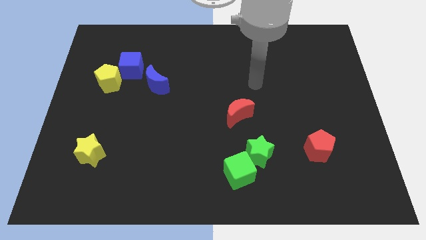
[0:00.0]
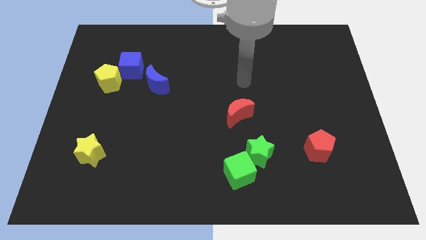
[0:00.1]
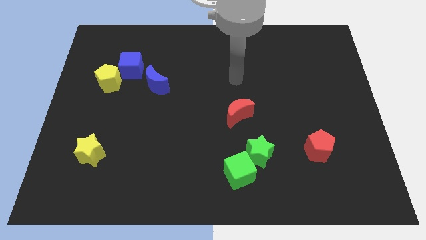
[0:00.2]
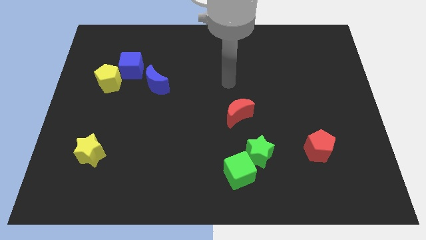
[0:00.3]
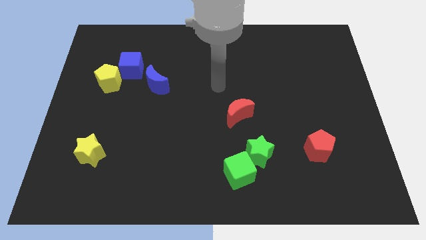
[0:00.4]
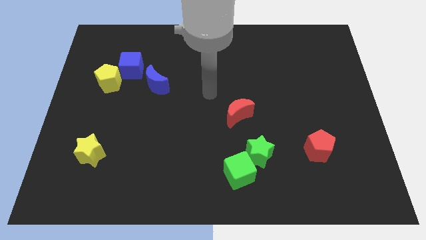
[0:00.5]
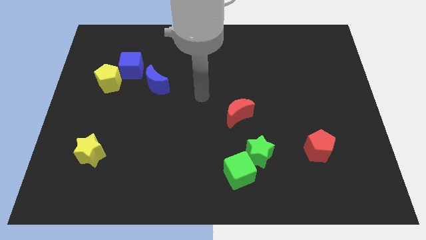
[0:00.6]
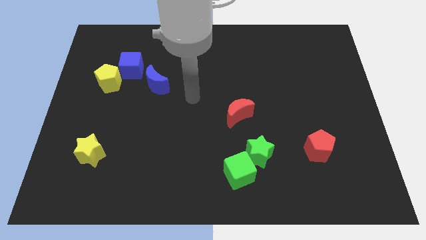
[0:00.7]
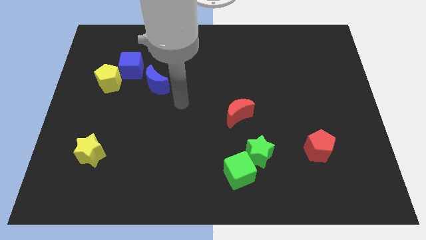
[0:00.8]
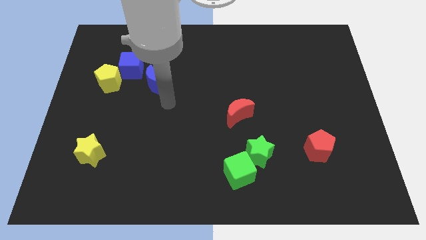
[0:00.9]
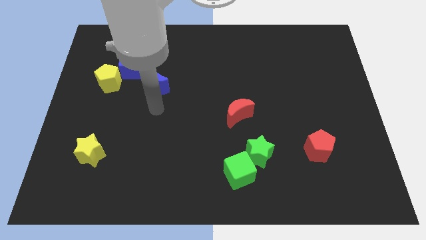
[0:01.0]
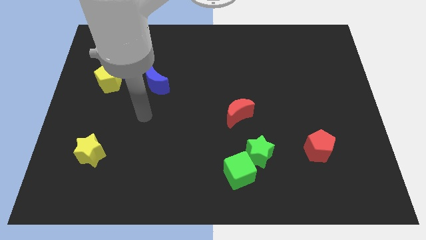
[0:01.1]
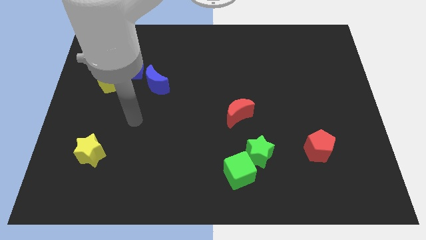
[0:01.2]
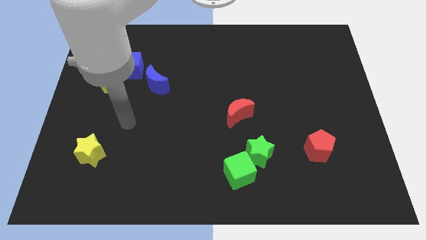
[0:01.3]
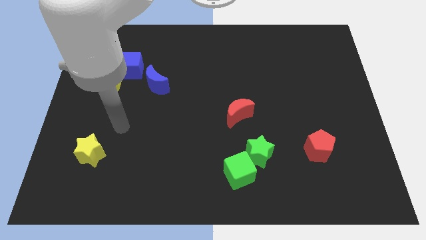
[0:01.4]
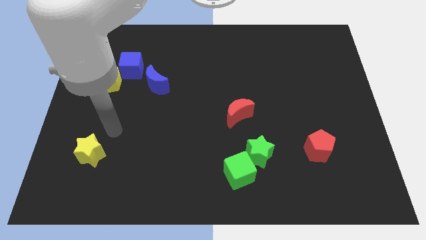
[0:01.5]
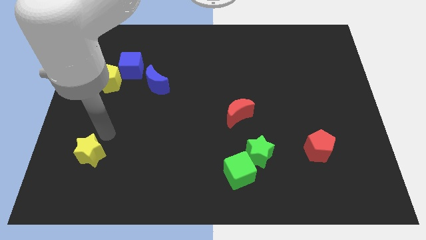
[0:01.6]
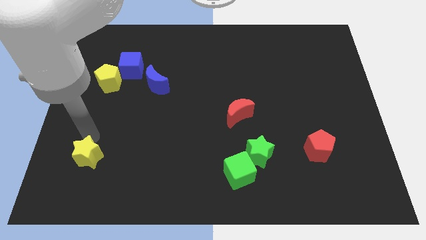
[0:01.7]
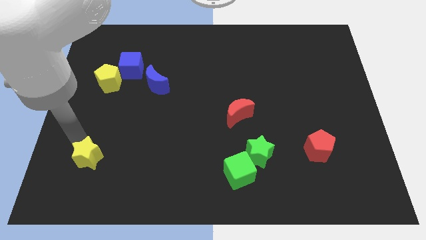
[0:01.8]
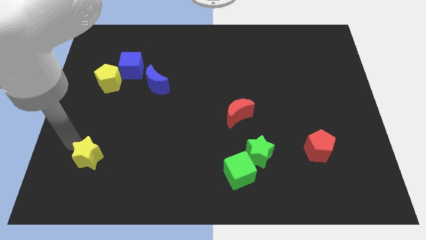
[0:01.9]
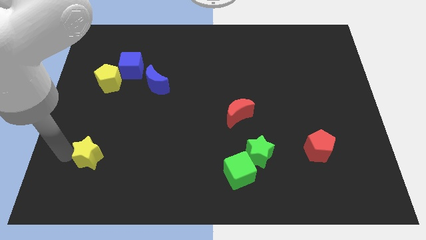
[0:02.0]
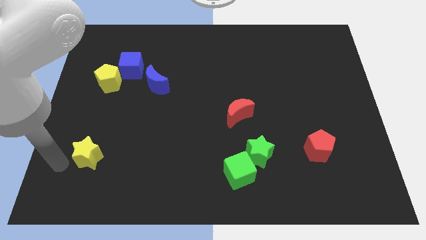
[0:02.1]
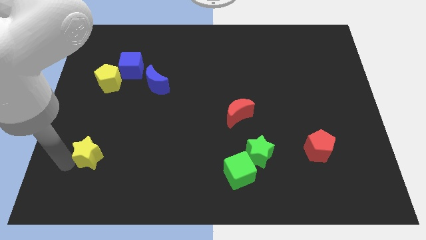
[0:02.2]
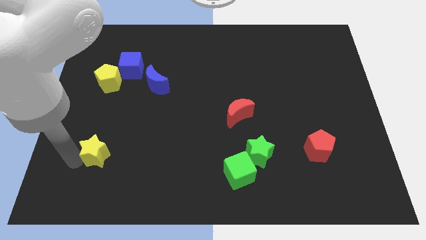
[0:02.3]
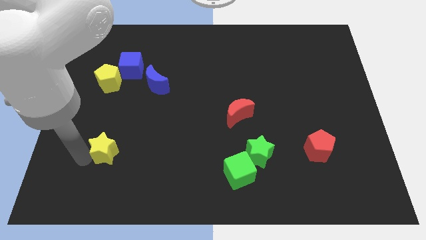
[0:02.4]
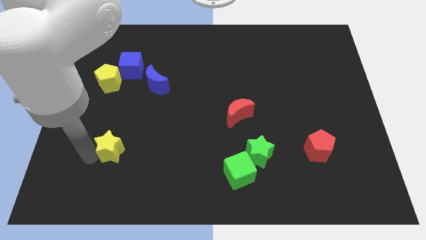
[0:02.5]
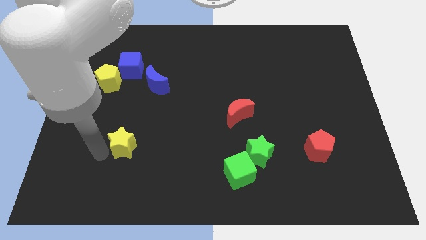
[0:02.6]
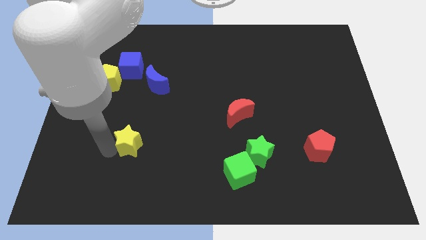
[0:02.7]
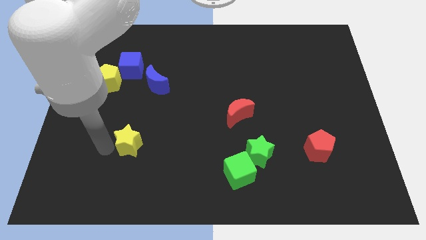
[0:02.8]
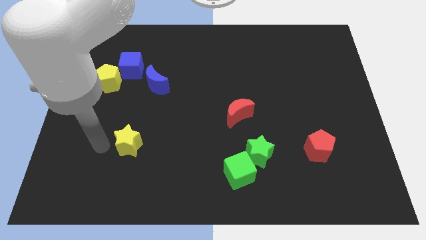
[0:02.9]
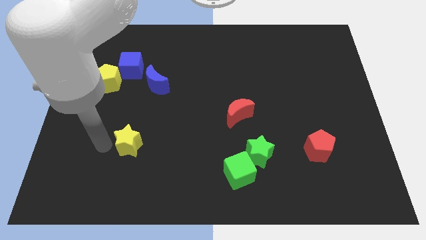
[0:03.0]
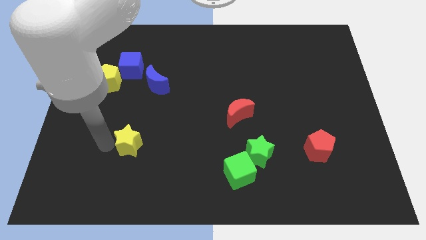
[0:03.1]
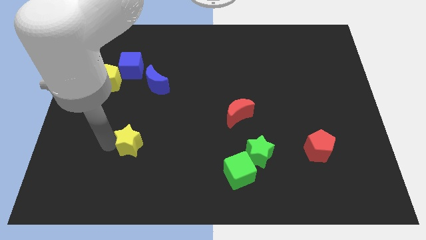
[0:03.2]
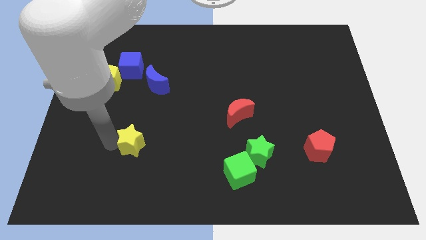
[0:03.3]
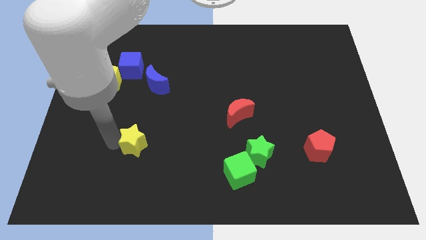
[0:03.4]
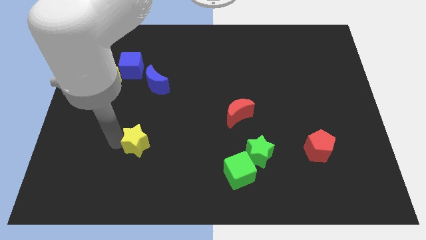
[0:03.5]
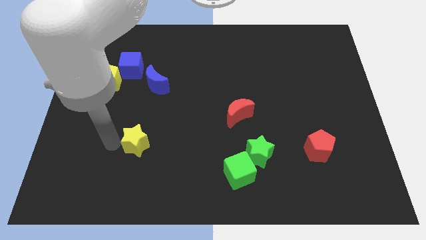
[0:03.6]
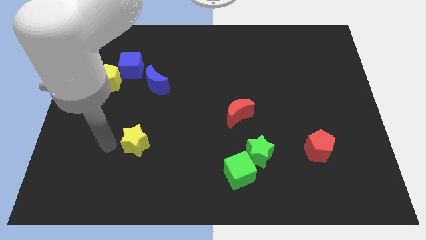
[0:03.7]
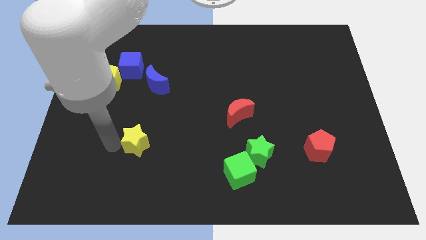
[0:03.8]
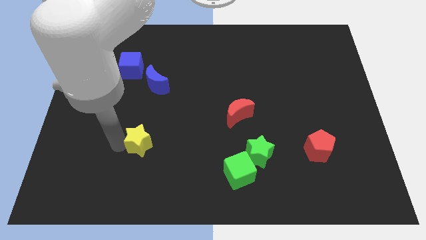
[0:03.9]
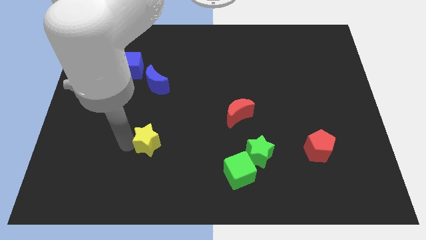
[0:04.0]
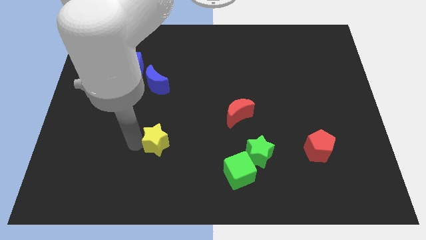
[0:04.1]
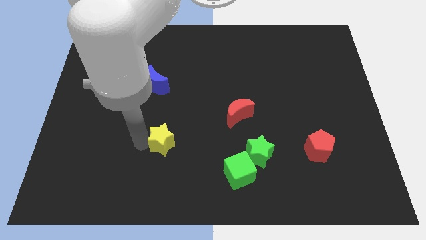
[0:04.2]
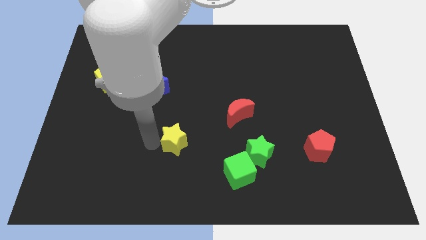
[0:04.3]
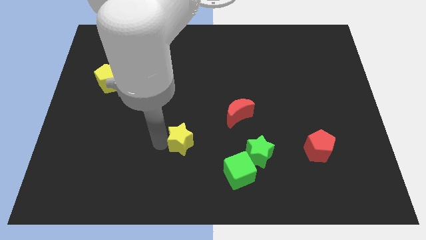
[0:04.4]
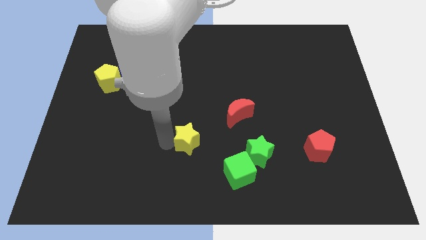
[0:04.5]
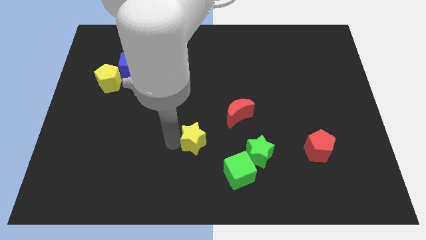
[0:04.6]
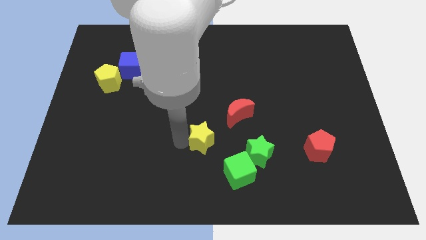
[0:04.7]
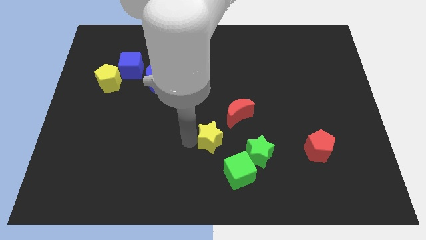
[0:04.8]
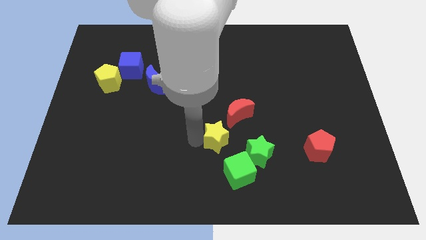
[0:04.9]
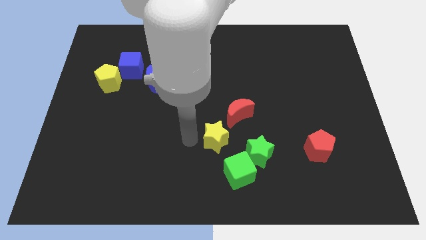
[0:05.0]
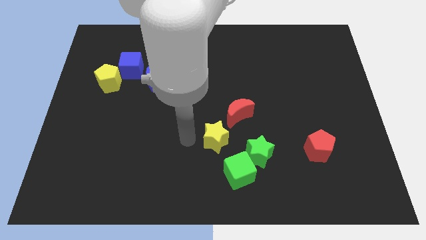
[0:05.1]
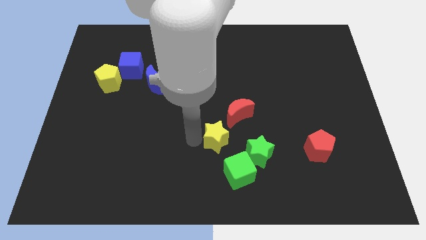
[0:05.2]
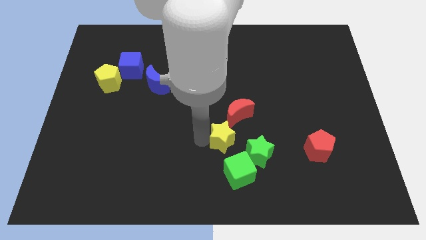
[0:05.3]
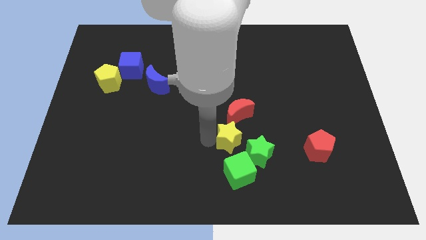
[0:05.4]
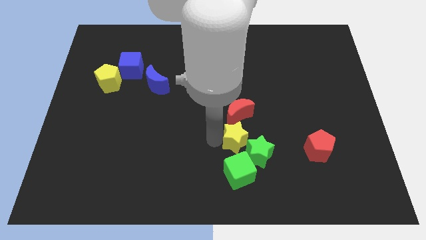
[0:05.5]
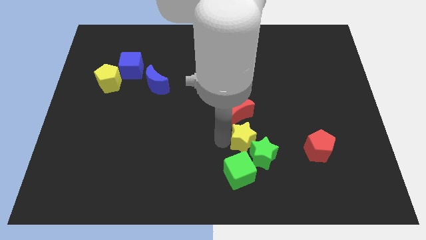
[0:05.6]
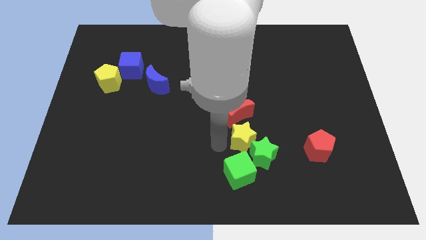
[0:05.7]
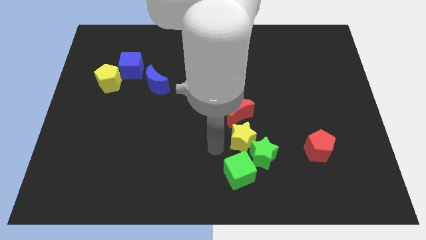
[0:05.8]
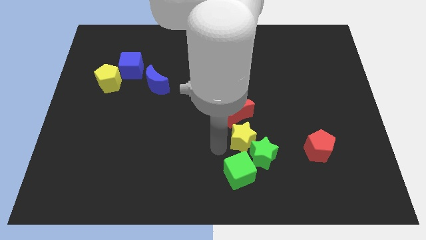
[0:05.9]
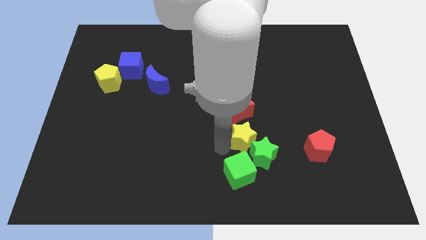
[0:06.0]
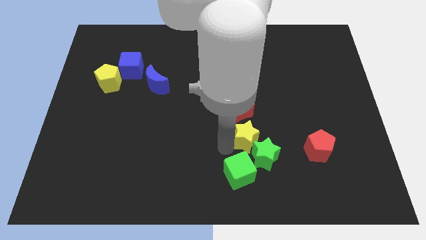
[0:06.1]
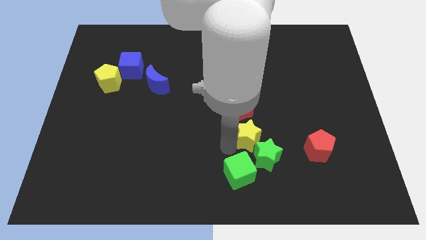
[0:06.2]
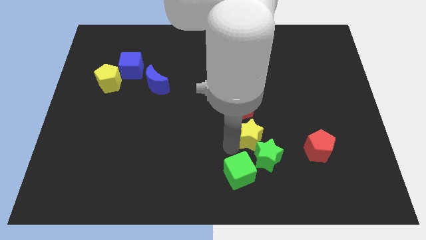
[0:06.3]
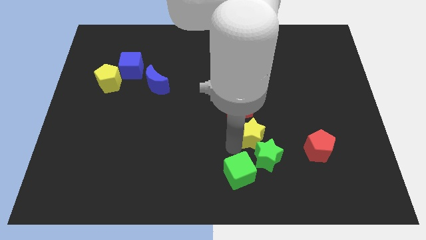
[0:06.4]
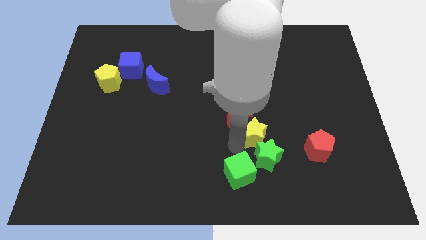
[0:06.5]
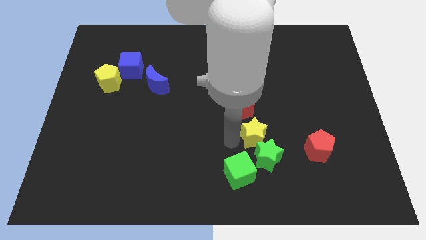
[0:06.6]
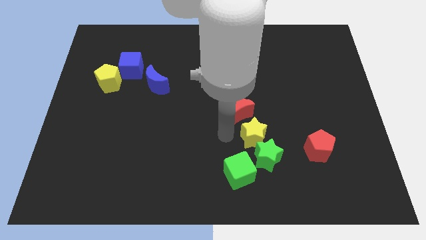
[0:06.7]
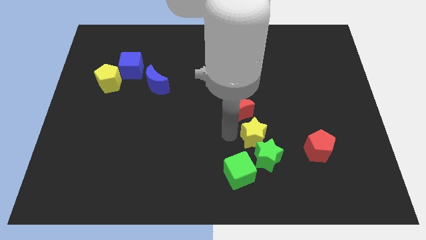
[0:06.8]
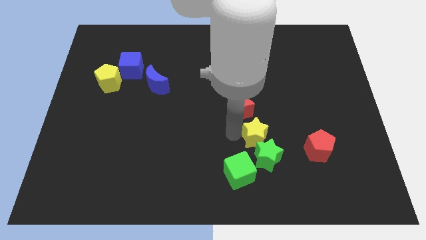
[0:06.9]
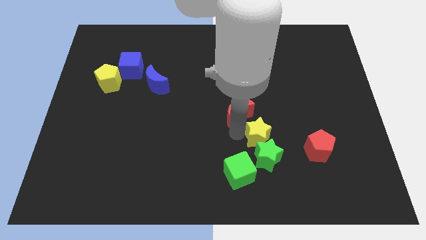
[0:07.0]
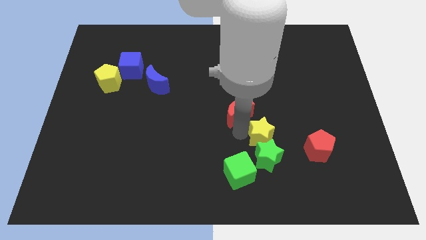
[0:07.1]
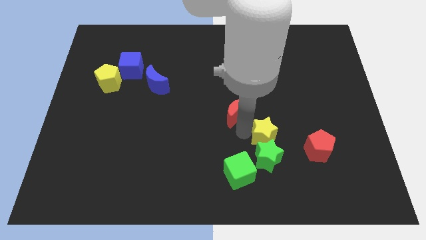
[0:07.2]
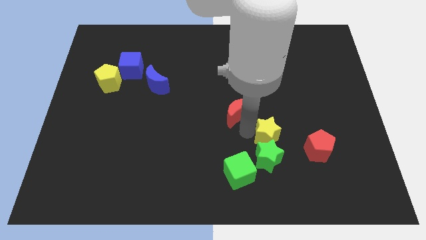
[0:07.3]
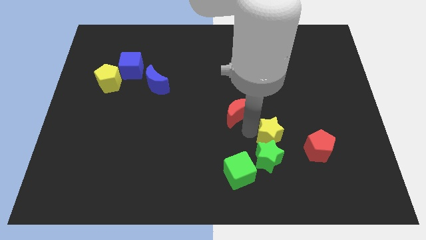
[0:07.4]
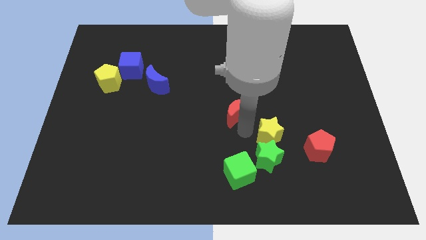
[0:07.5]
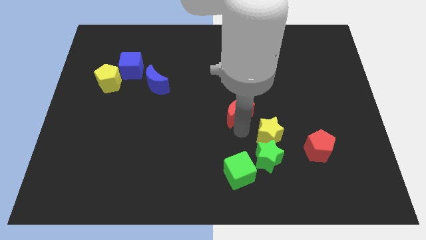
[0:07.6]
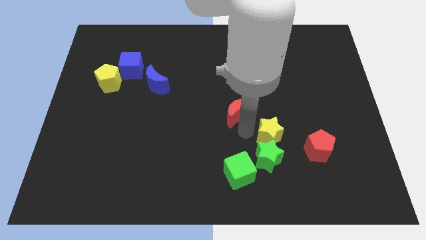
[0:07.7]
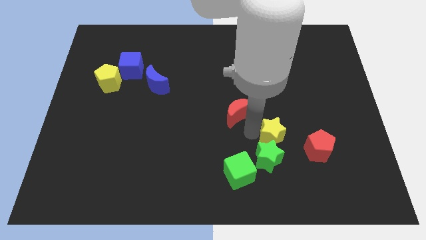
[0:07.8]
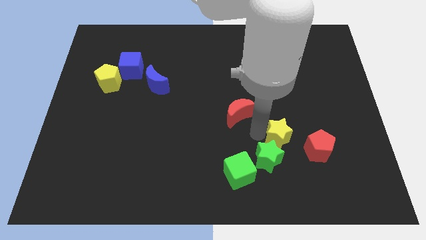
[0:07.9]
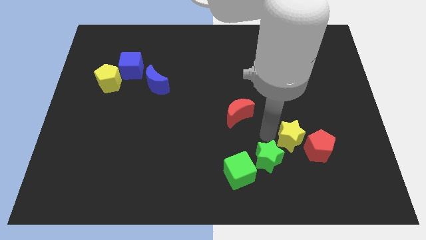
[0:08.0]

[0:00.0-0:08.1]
slide the yellow star towards the red pentagon
